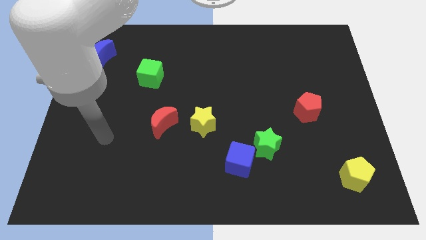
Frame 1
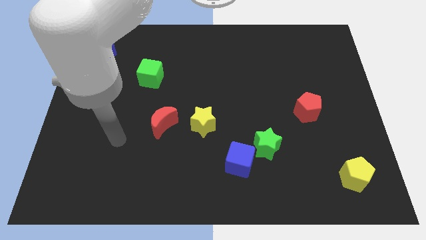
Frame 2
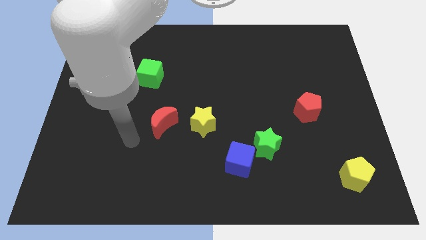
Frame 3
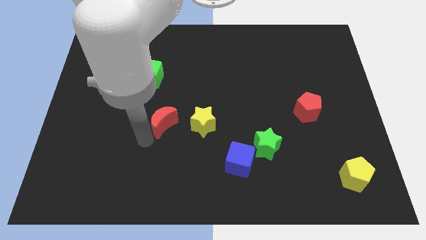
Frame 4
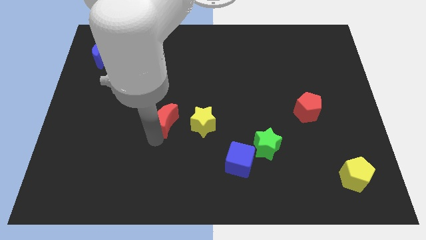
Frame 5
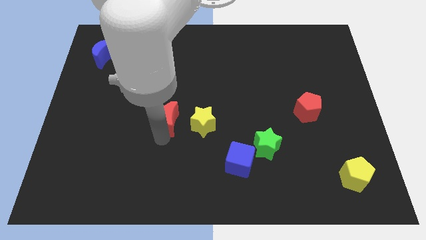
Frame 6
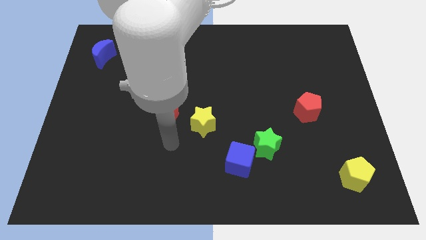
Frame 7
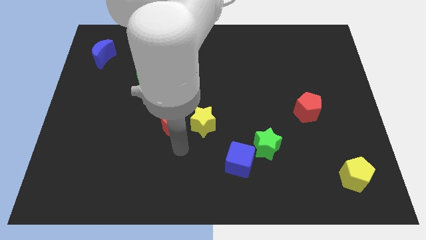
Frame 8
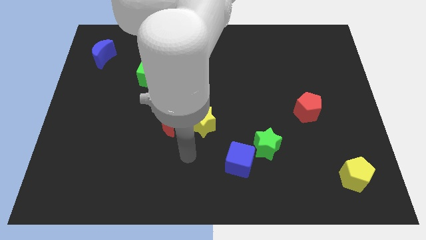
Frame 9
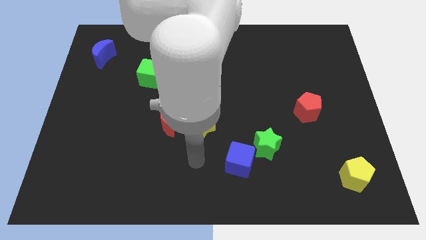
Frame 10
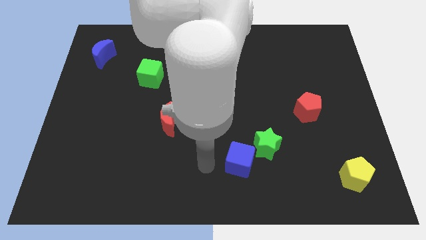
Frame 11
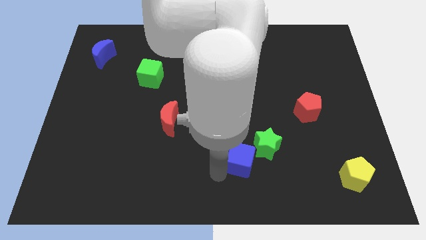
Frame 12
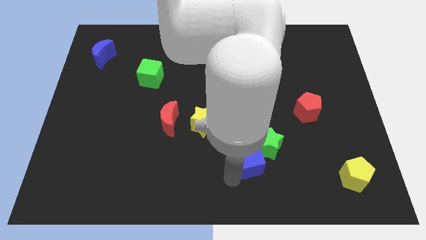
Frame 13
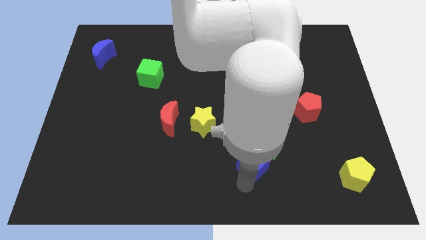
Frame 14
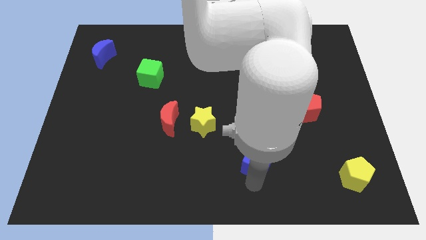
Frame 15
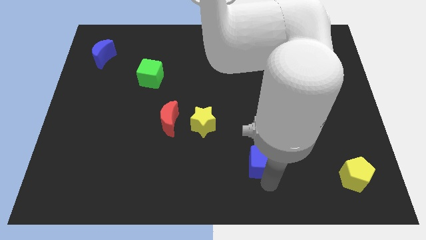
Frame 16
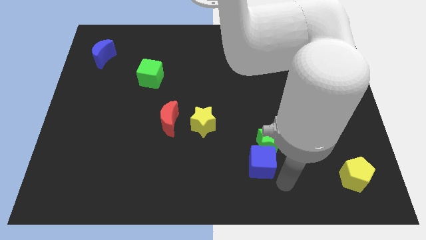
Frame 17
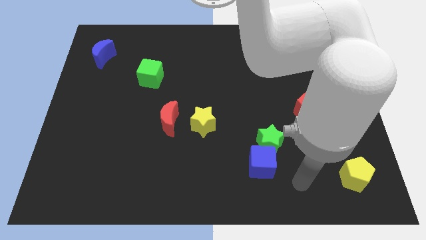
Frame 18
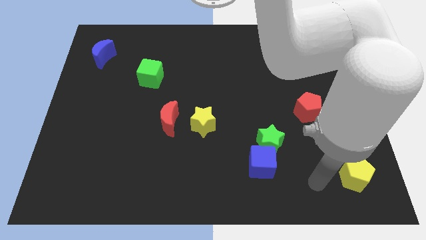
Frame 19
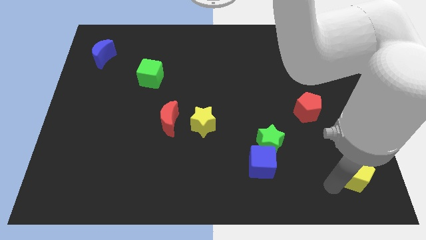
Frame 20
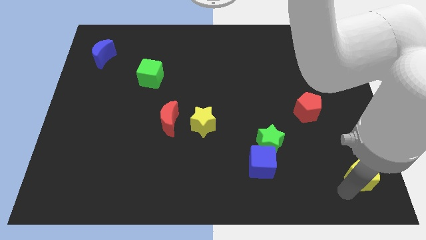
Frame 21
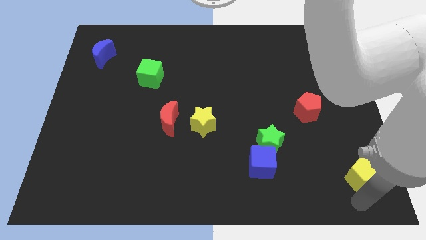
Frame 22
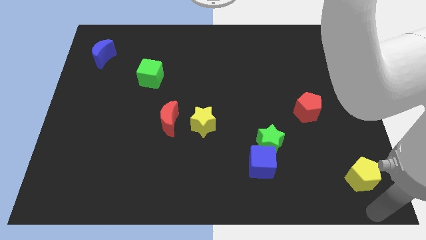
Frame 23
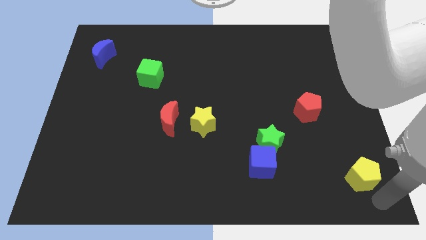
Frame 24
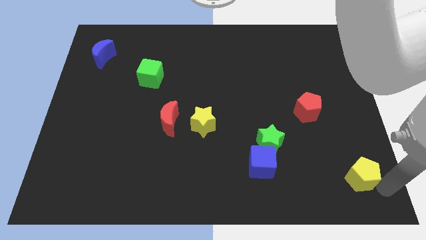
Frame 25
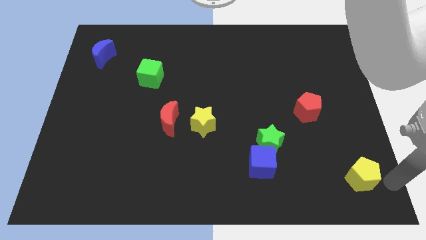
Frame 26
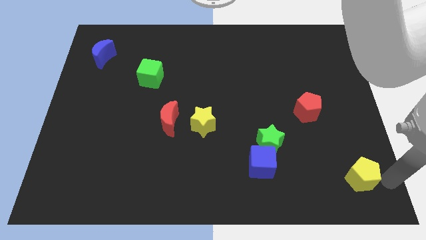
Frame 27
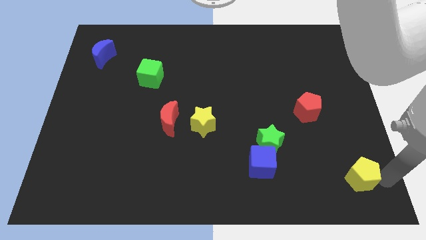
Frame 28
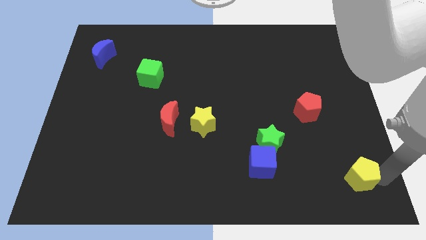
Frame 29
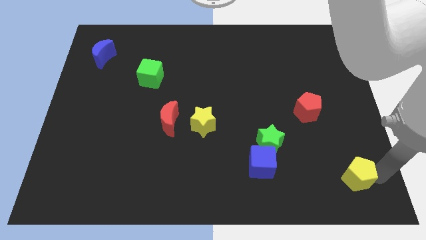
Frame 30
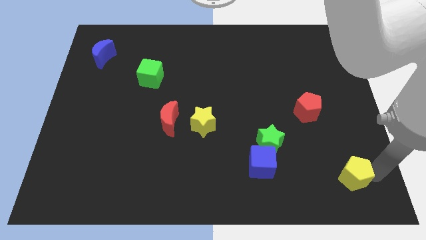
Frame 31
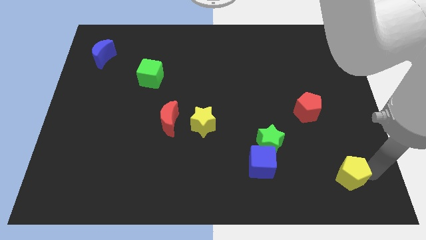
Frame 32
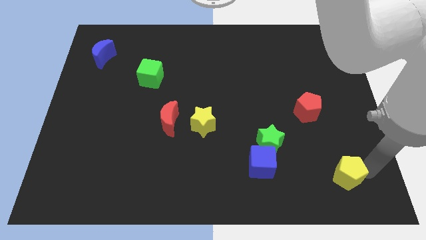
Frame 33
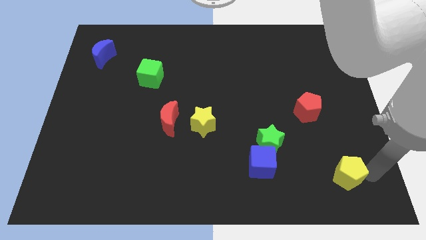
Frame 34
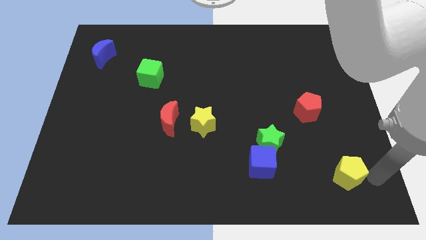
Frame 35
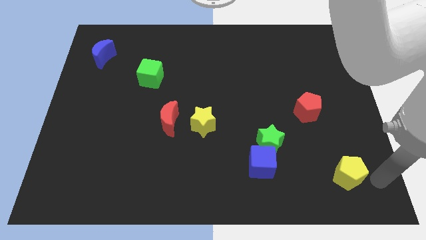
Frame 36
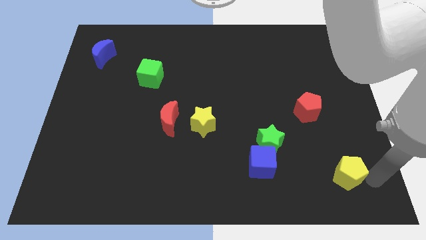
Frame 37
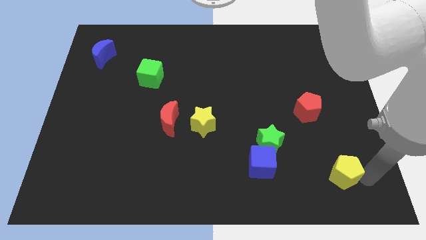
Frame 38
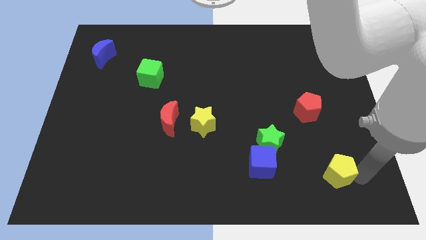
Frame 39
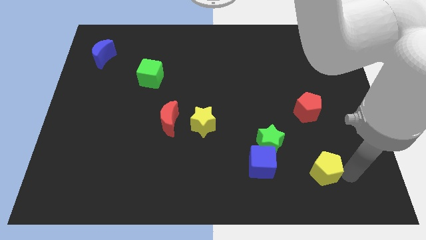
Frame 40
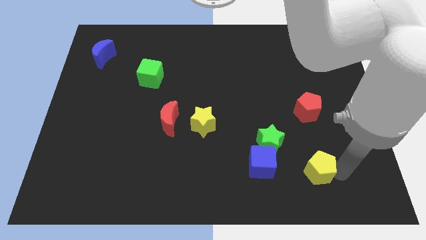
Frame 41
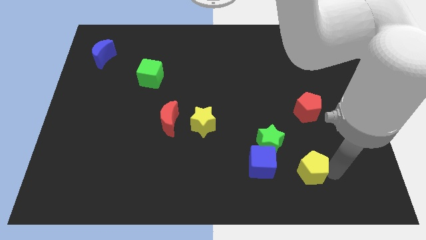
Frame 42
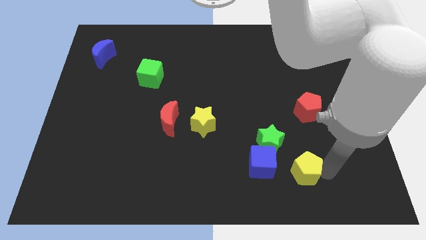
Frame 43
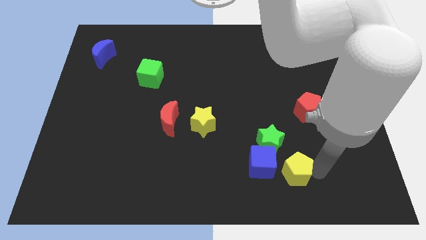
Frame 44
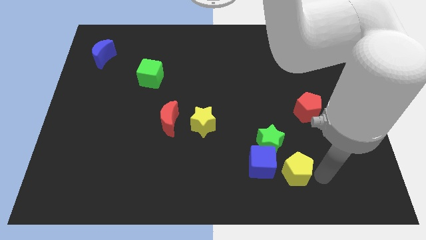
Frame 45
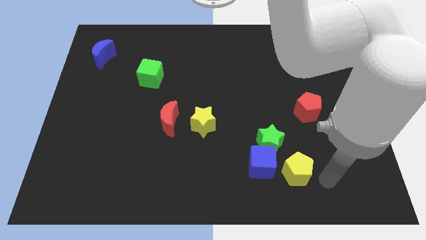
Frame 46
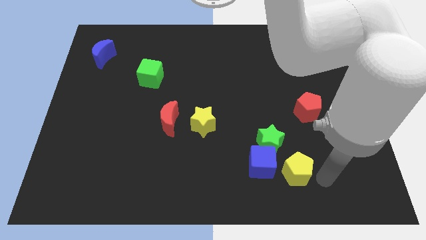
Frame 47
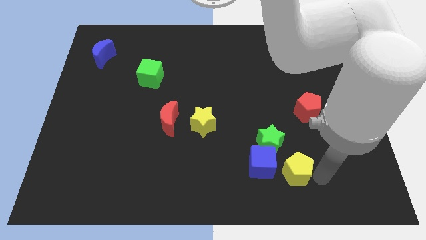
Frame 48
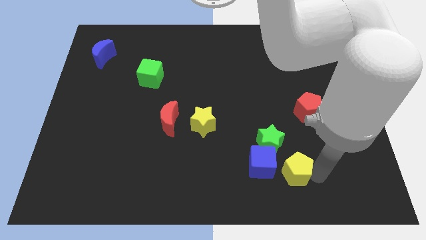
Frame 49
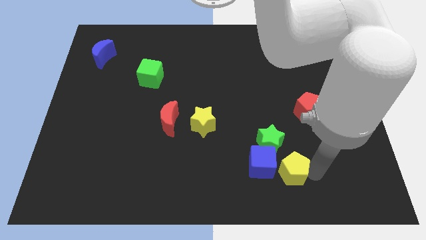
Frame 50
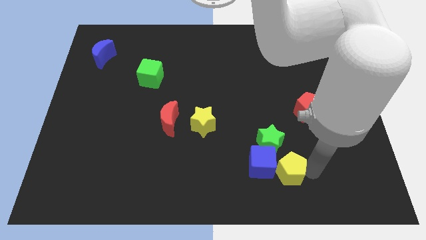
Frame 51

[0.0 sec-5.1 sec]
push the yellow pentagon next to the blue cube

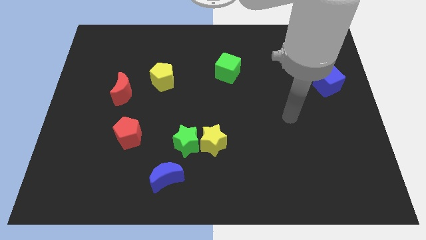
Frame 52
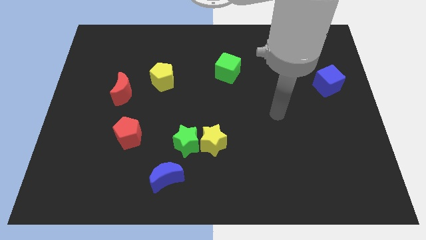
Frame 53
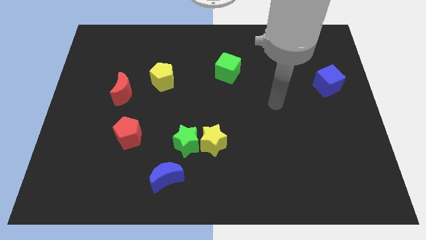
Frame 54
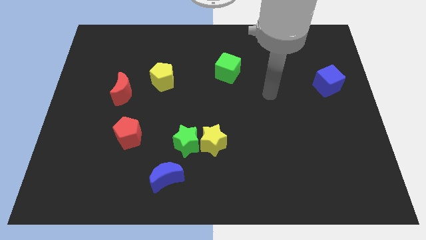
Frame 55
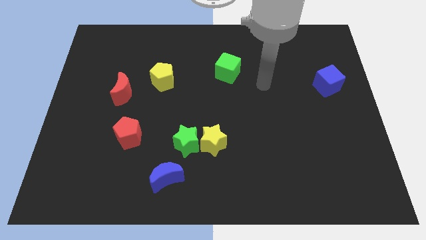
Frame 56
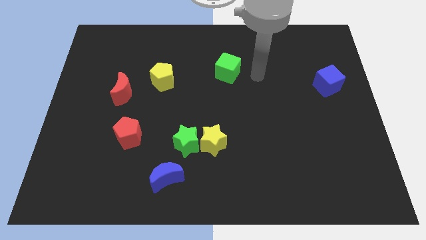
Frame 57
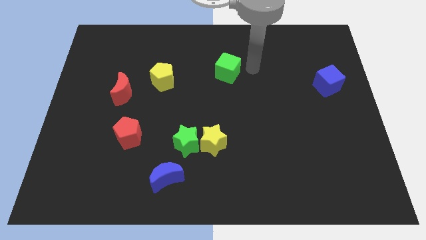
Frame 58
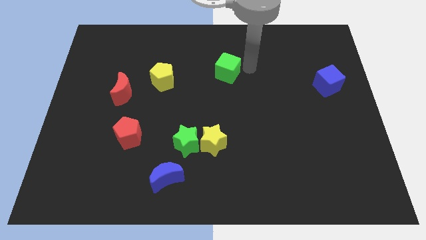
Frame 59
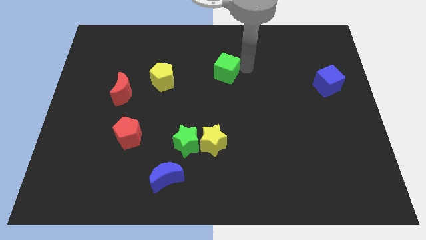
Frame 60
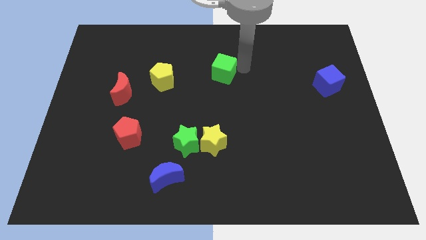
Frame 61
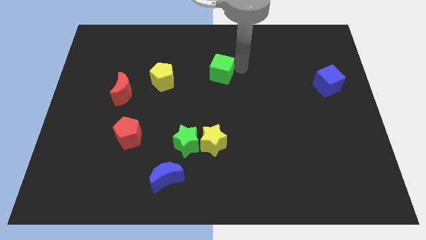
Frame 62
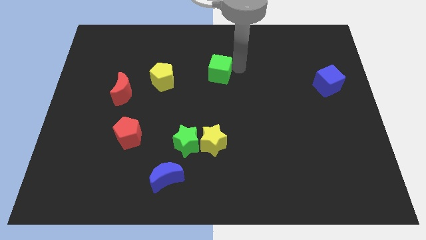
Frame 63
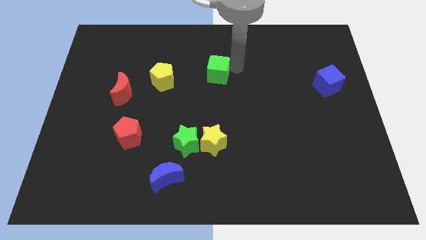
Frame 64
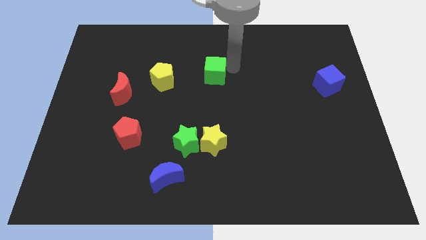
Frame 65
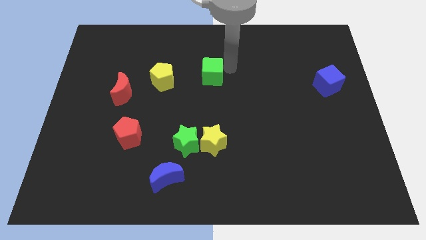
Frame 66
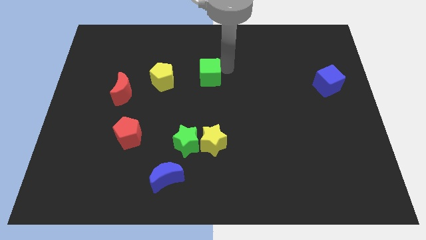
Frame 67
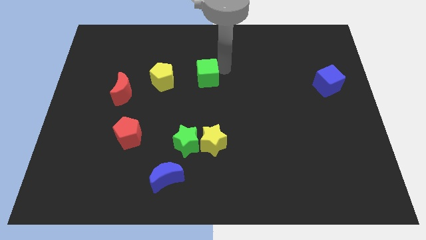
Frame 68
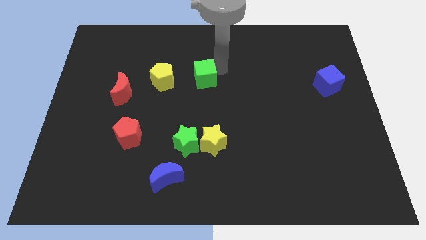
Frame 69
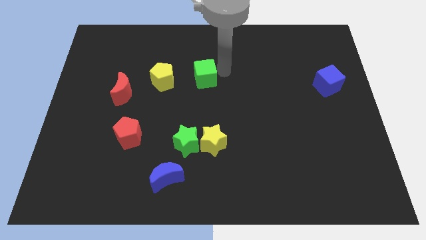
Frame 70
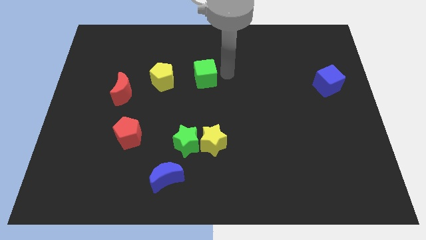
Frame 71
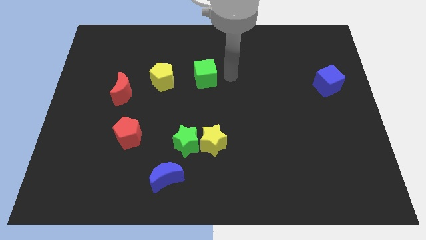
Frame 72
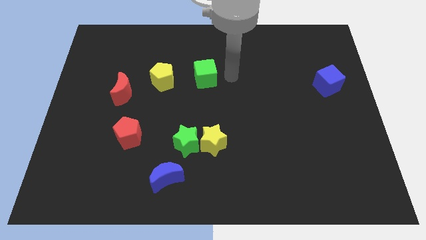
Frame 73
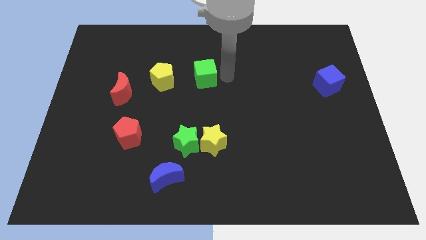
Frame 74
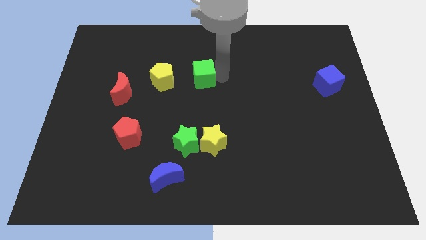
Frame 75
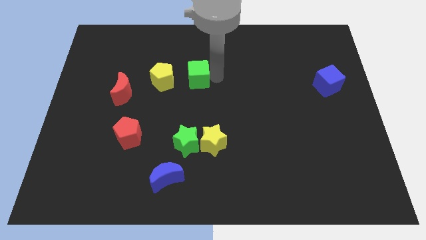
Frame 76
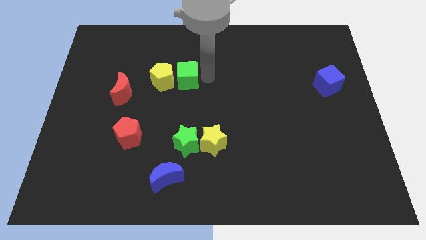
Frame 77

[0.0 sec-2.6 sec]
put the green cube next to the yellow pentagon

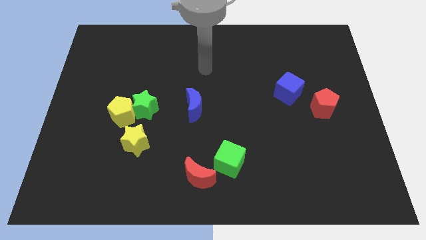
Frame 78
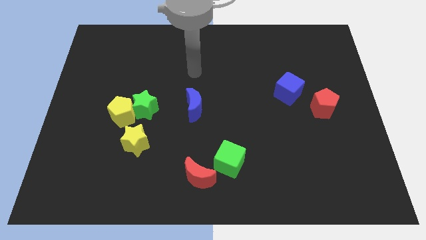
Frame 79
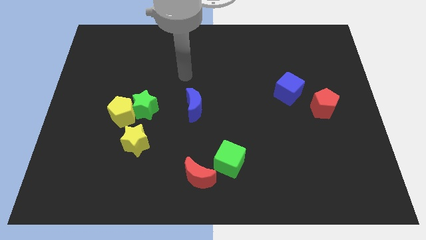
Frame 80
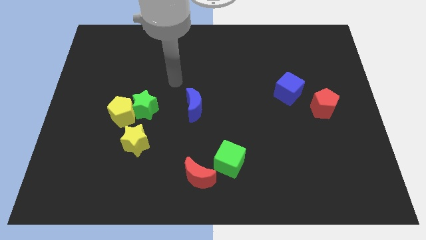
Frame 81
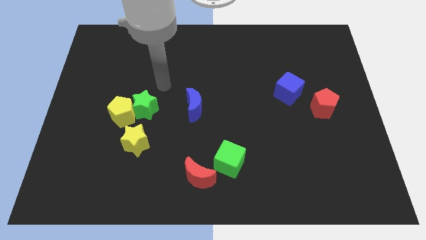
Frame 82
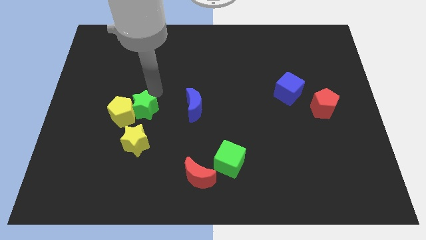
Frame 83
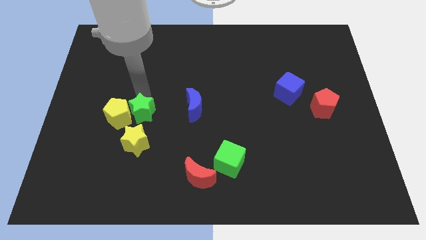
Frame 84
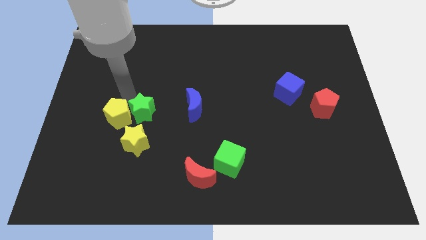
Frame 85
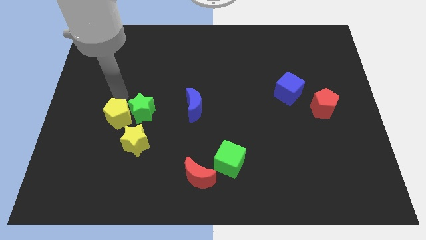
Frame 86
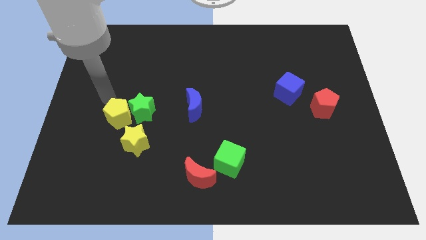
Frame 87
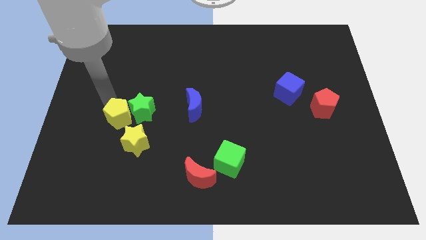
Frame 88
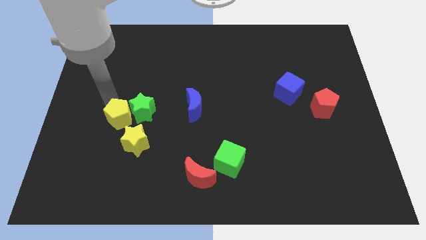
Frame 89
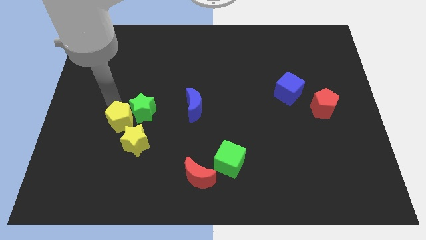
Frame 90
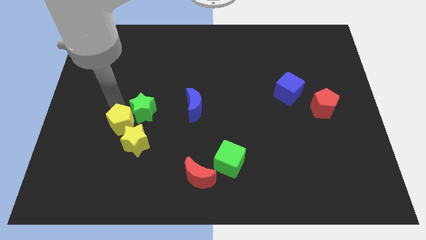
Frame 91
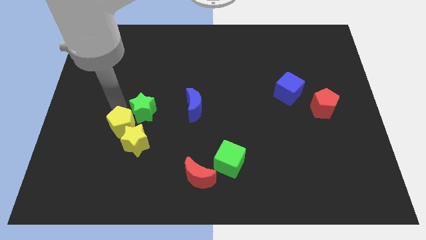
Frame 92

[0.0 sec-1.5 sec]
put the yellow pentagon towards the yellow star
